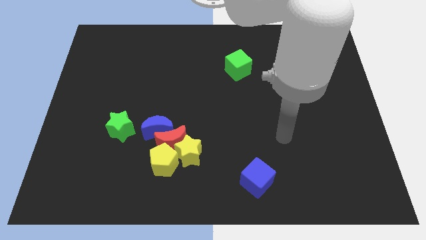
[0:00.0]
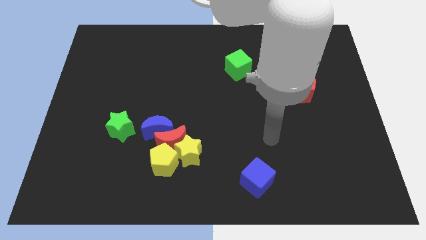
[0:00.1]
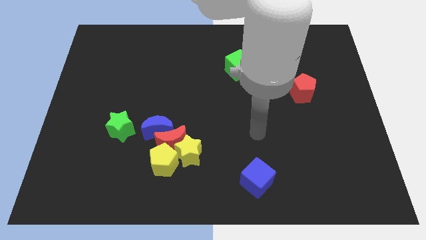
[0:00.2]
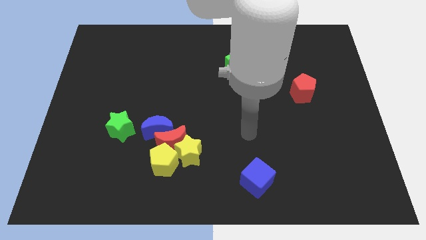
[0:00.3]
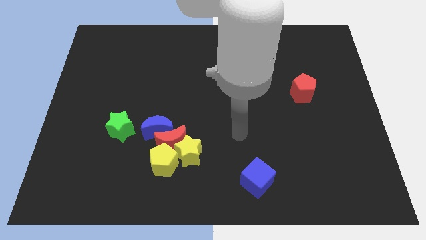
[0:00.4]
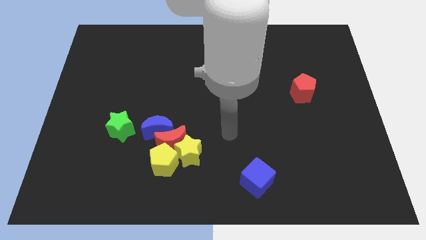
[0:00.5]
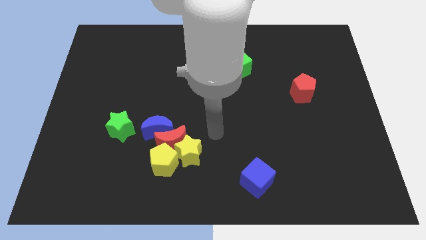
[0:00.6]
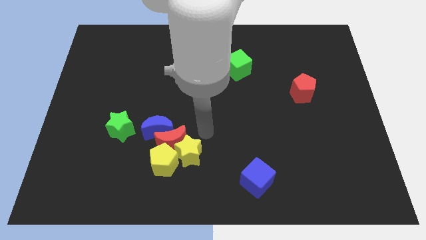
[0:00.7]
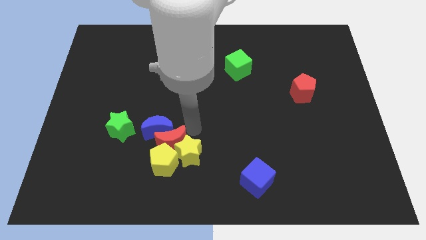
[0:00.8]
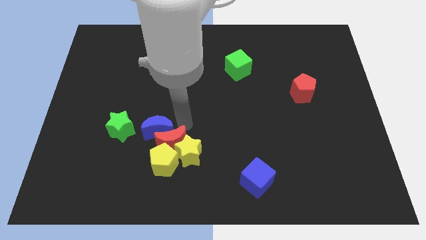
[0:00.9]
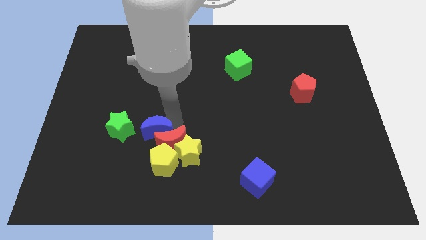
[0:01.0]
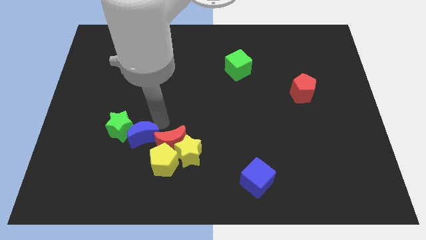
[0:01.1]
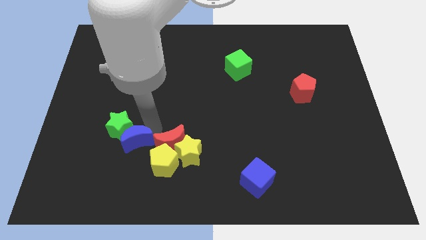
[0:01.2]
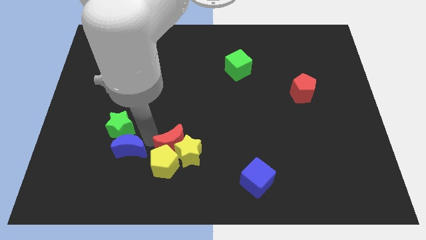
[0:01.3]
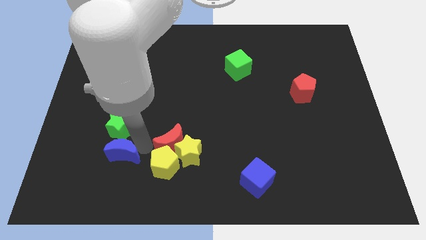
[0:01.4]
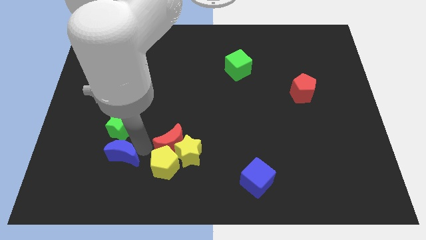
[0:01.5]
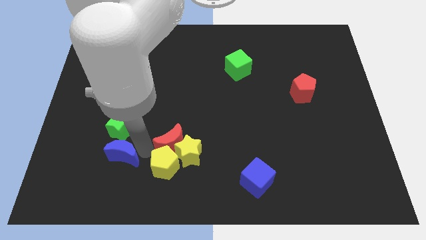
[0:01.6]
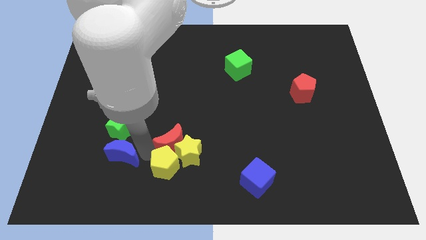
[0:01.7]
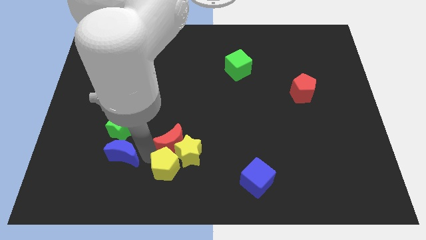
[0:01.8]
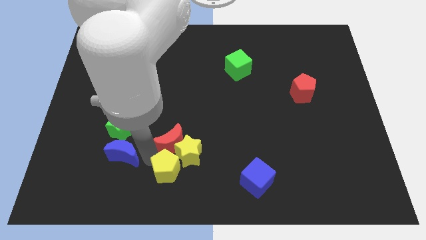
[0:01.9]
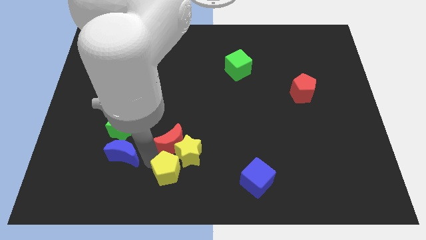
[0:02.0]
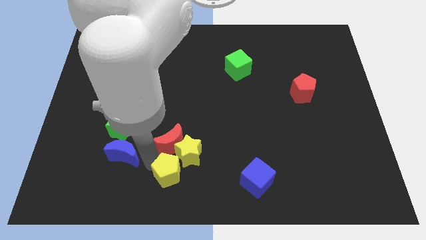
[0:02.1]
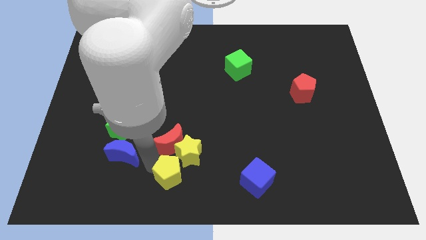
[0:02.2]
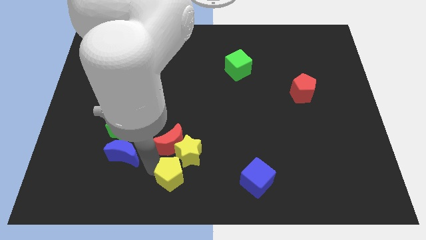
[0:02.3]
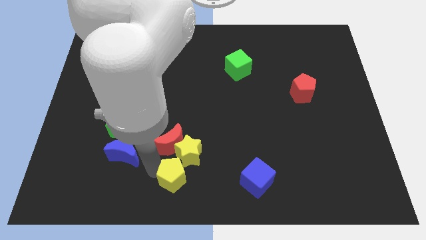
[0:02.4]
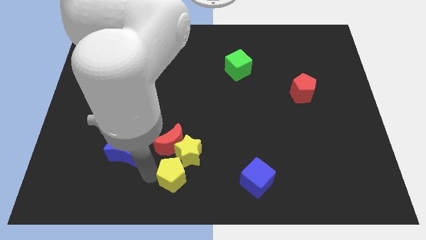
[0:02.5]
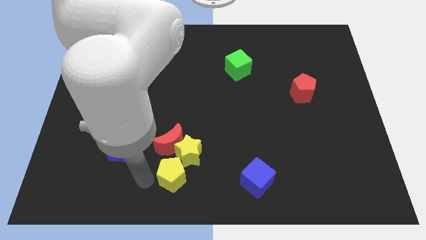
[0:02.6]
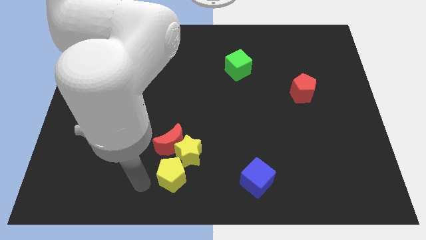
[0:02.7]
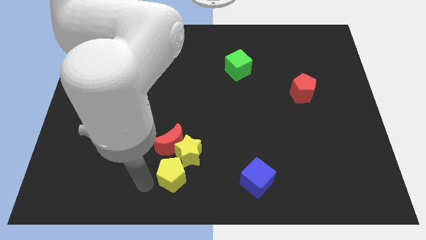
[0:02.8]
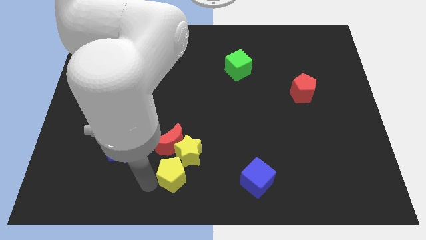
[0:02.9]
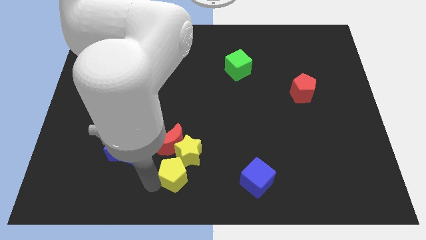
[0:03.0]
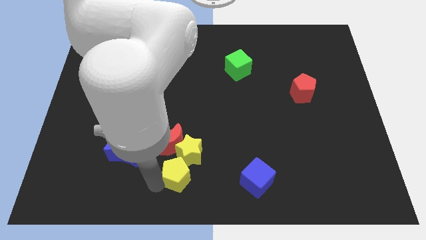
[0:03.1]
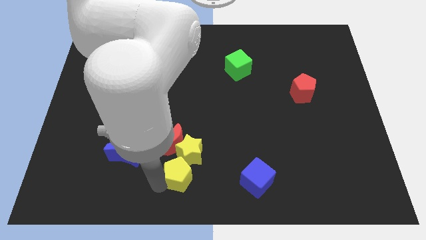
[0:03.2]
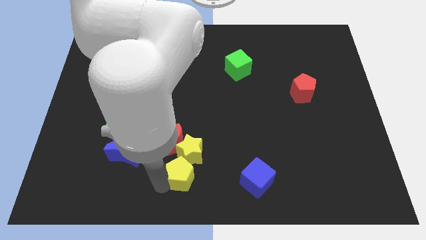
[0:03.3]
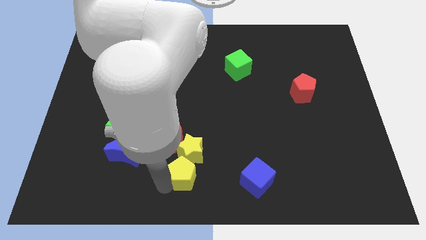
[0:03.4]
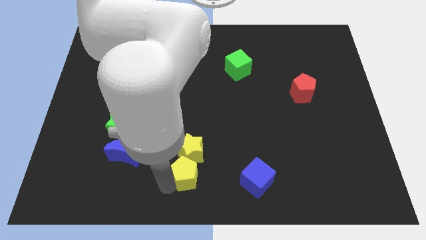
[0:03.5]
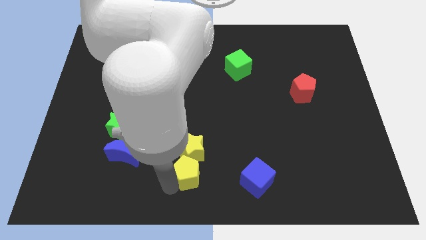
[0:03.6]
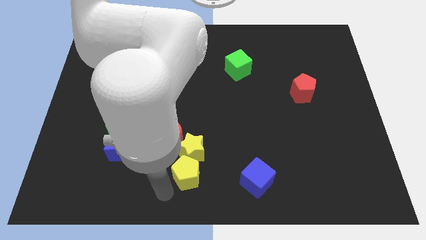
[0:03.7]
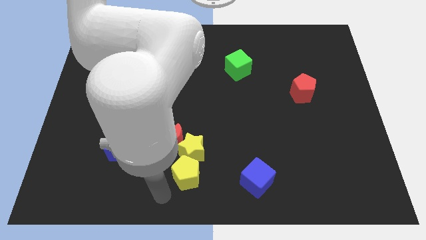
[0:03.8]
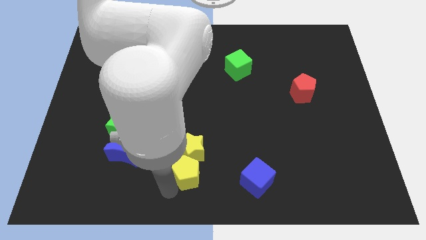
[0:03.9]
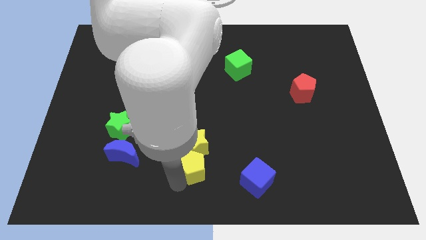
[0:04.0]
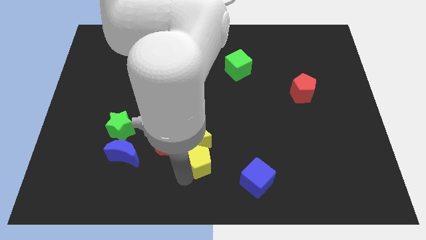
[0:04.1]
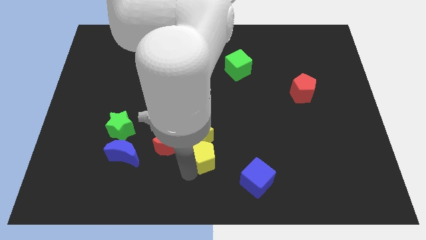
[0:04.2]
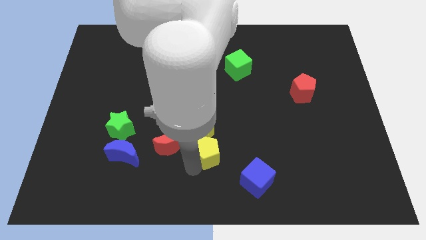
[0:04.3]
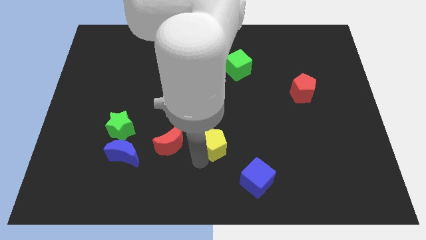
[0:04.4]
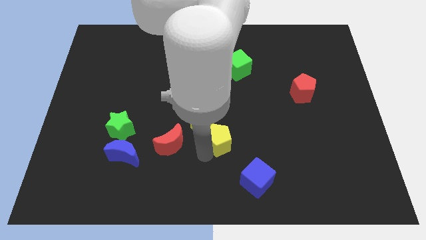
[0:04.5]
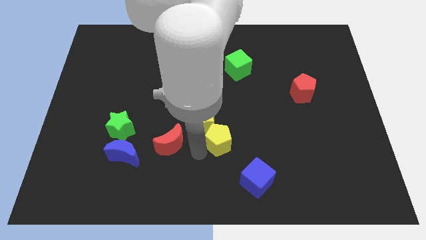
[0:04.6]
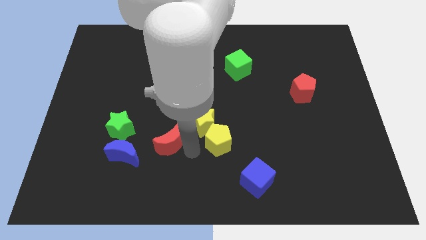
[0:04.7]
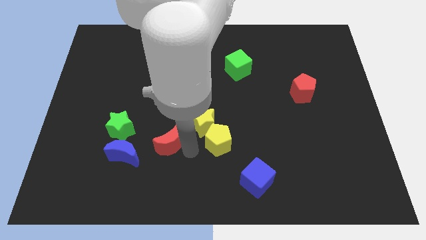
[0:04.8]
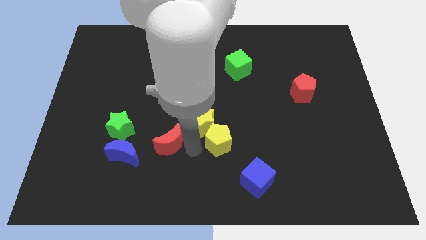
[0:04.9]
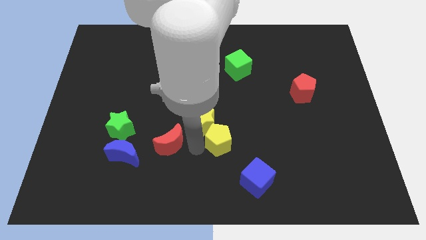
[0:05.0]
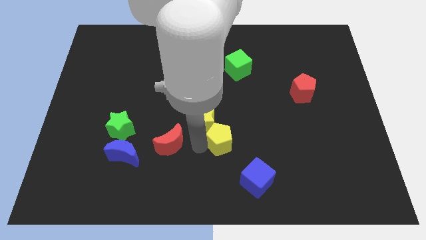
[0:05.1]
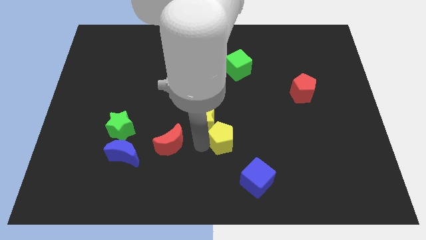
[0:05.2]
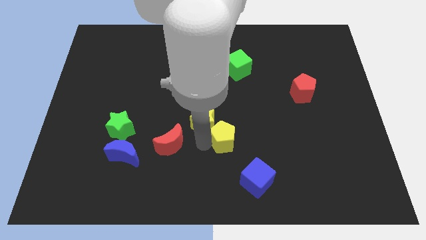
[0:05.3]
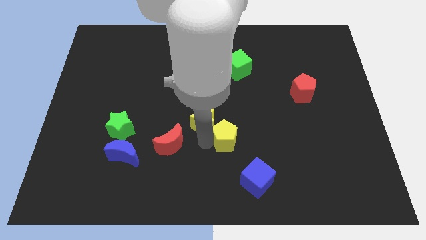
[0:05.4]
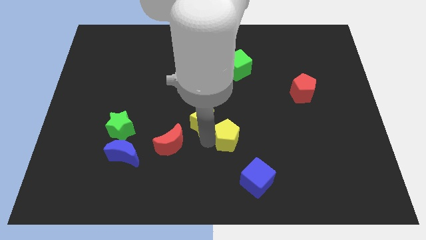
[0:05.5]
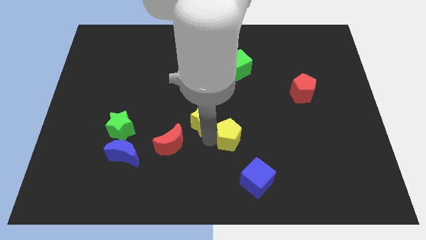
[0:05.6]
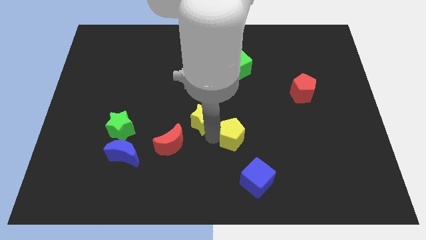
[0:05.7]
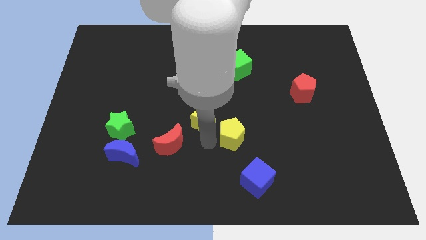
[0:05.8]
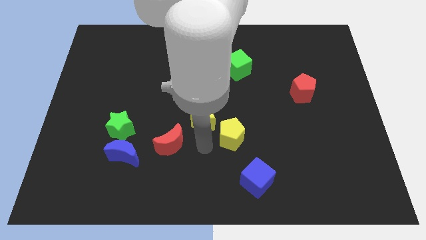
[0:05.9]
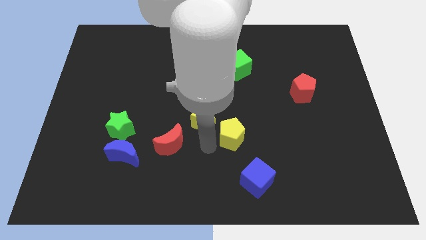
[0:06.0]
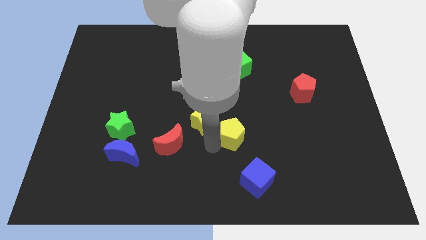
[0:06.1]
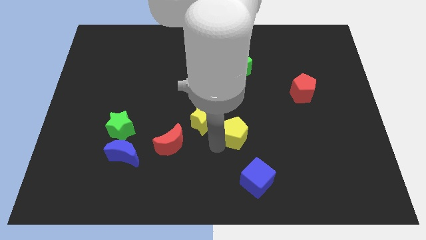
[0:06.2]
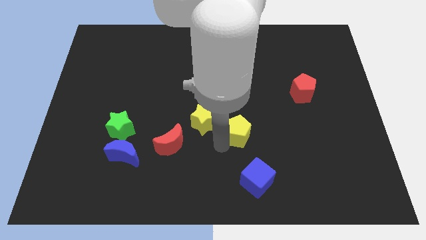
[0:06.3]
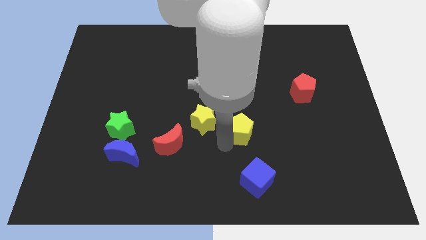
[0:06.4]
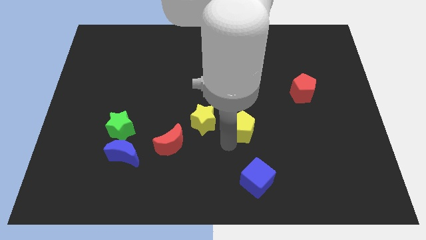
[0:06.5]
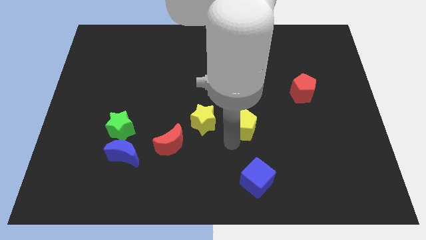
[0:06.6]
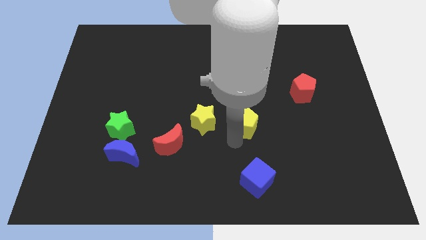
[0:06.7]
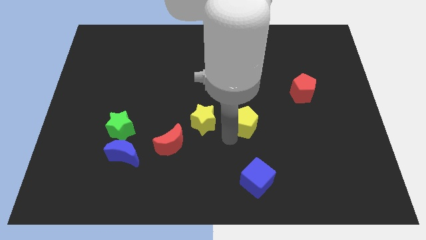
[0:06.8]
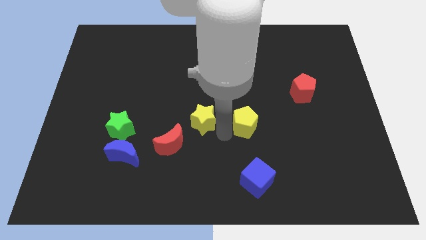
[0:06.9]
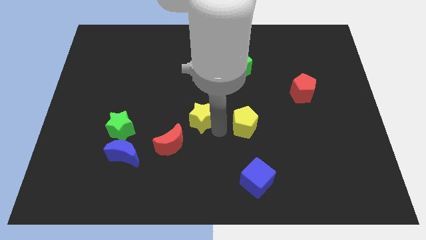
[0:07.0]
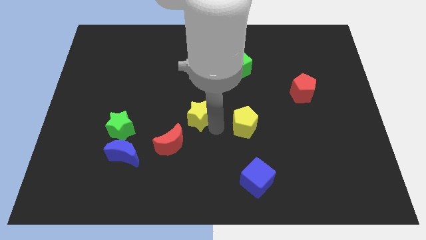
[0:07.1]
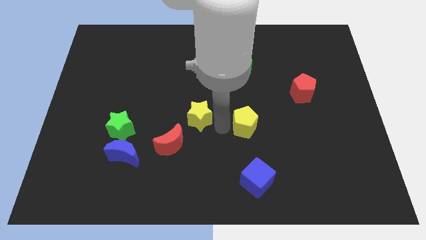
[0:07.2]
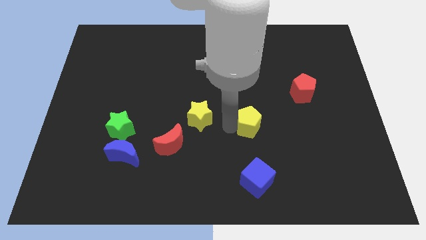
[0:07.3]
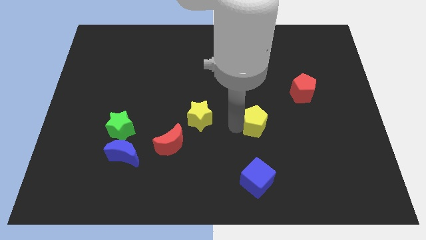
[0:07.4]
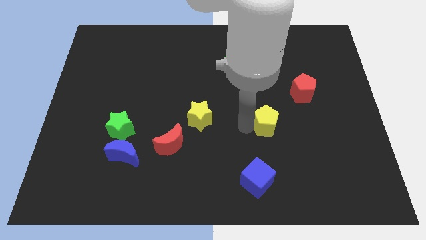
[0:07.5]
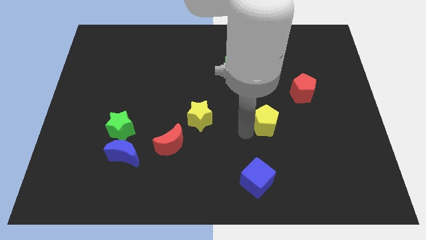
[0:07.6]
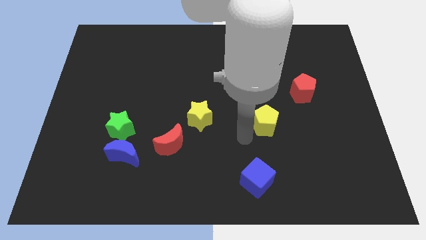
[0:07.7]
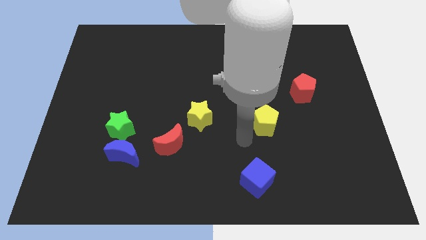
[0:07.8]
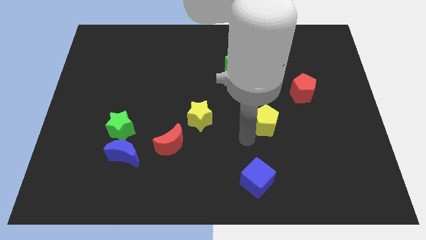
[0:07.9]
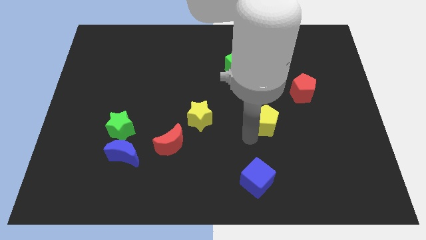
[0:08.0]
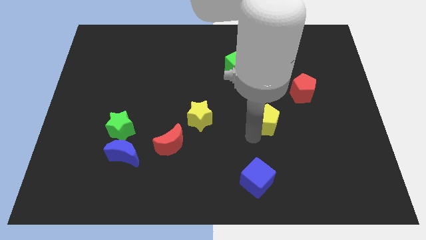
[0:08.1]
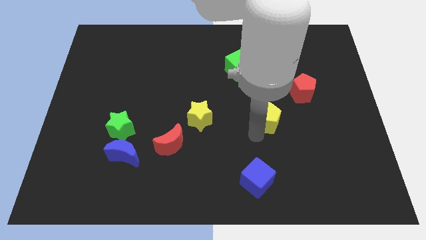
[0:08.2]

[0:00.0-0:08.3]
move the yellow pentagon to the bottom left side of the red pentagon
